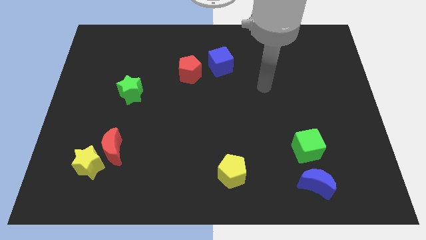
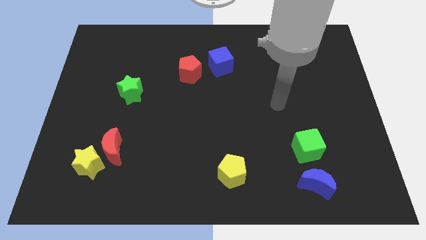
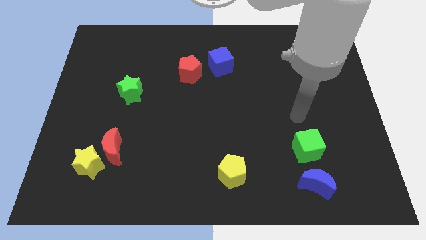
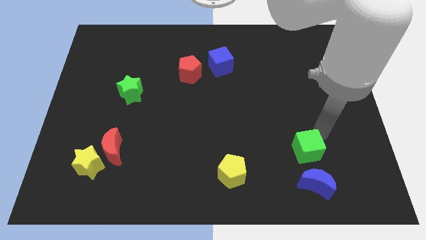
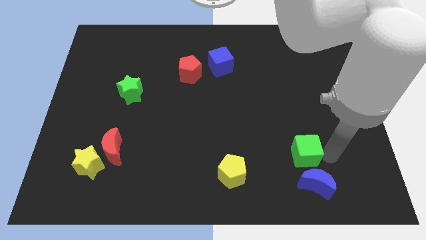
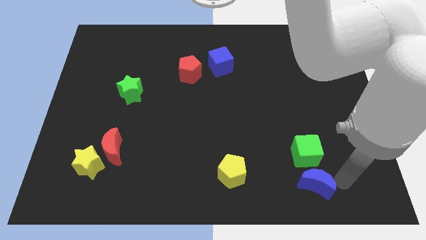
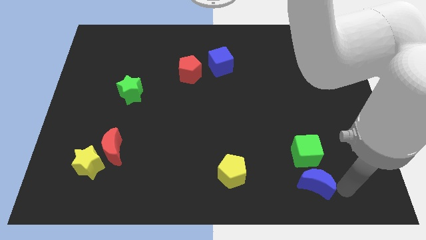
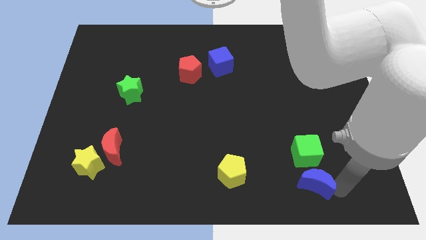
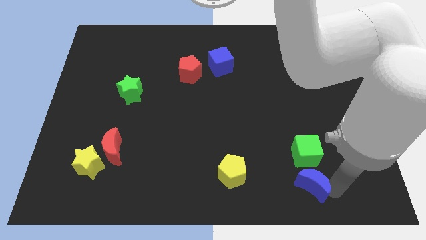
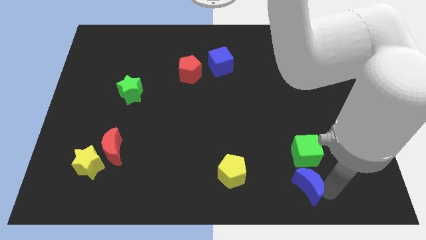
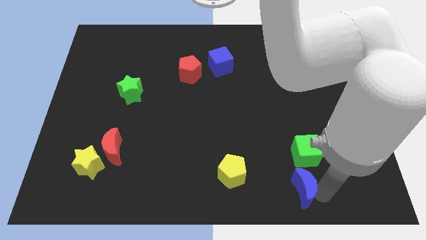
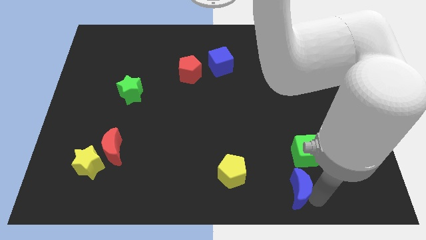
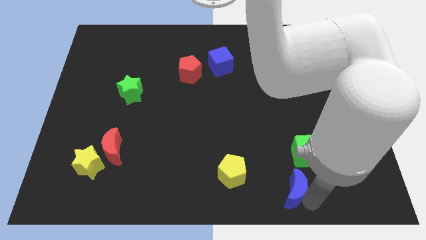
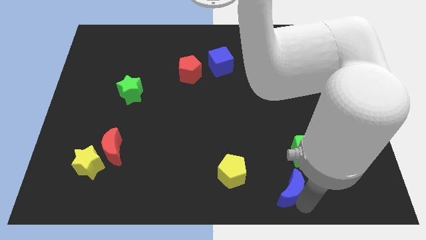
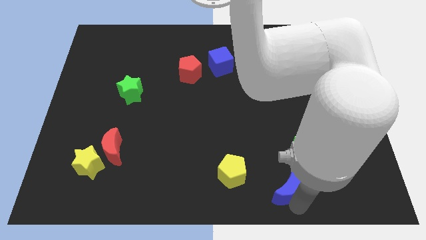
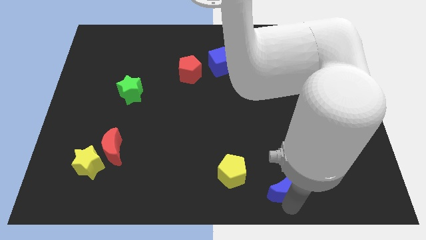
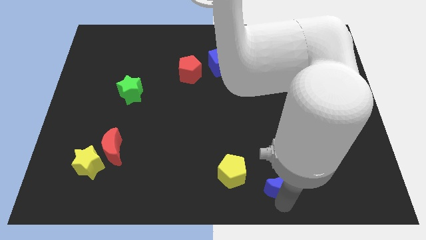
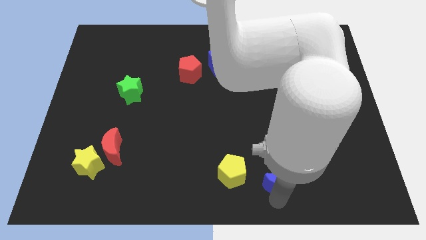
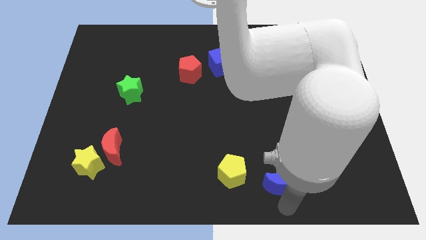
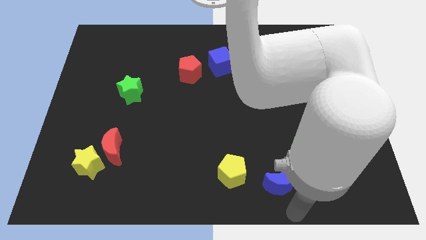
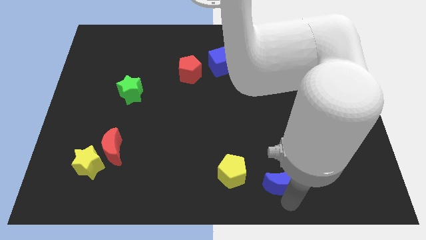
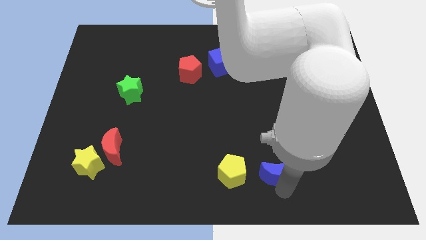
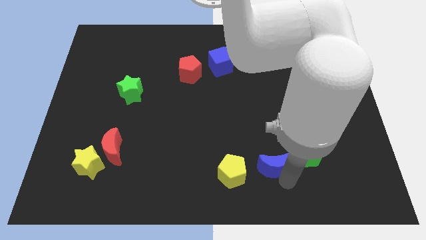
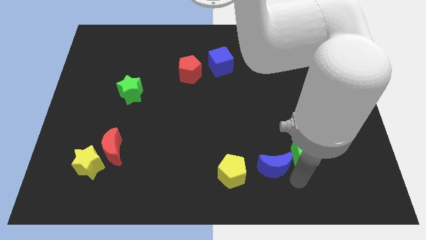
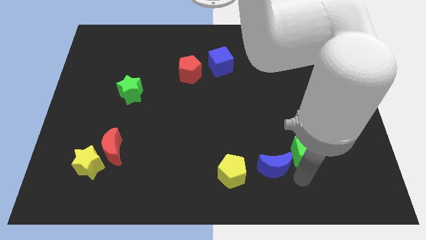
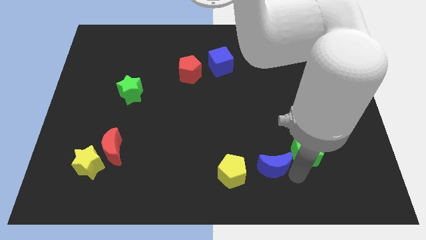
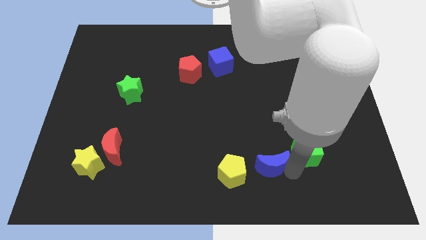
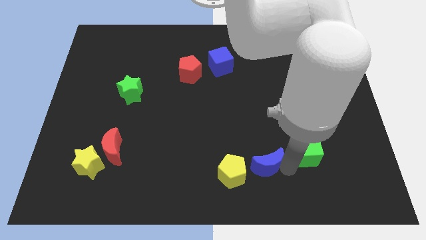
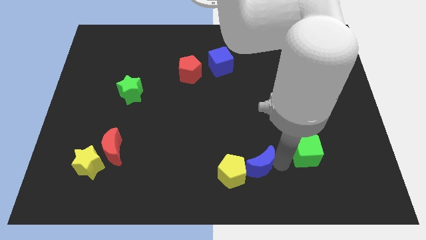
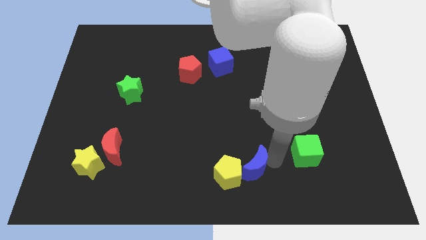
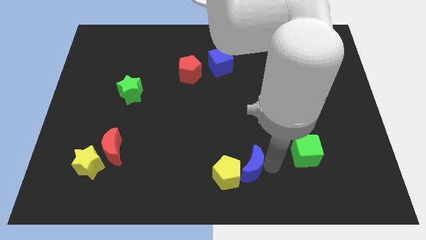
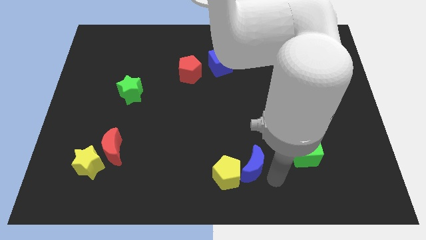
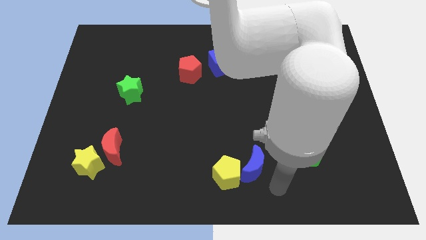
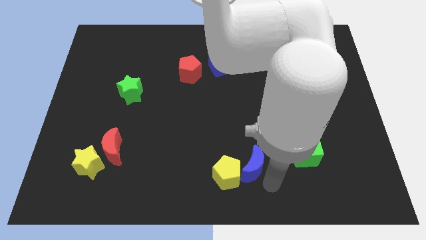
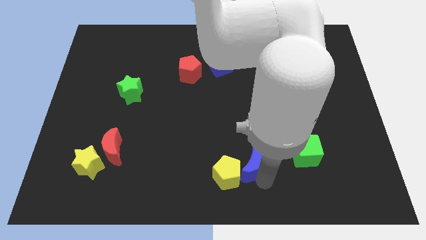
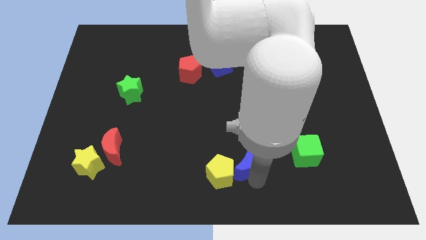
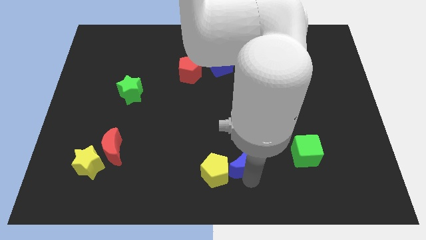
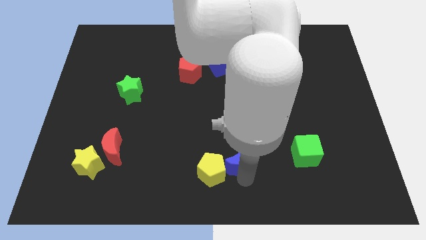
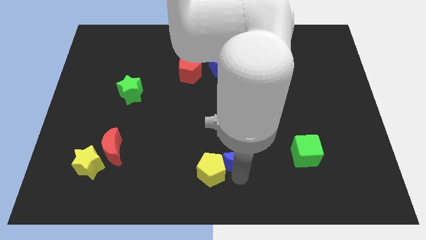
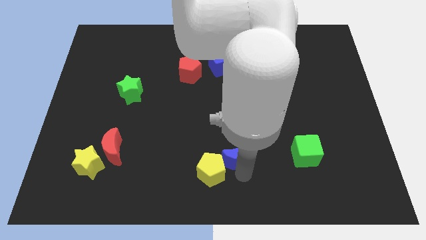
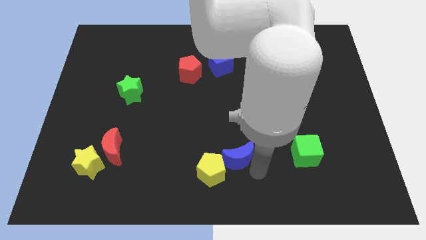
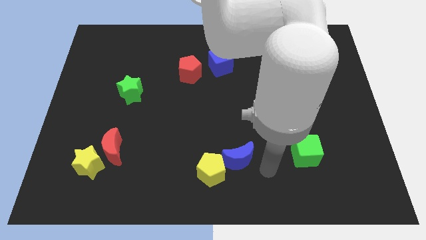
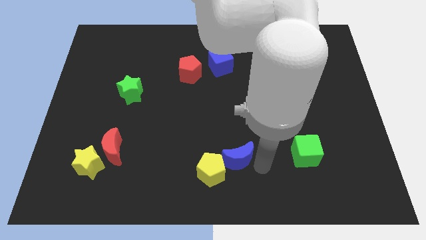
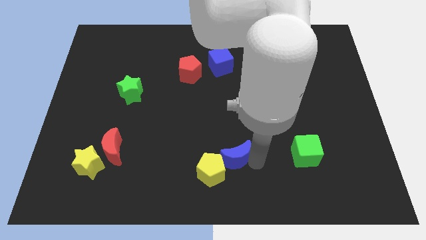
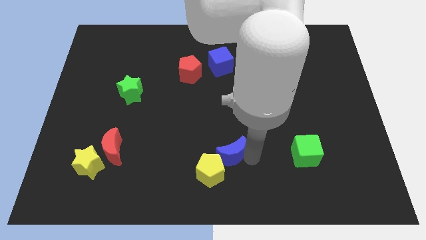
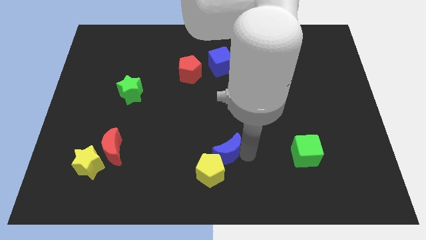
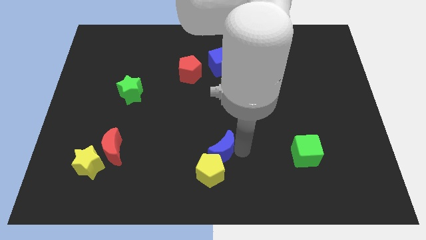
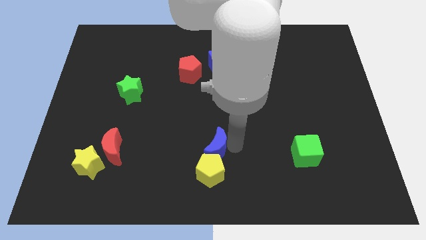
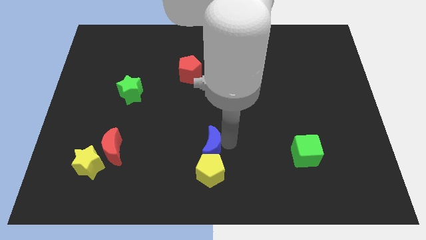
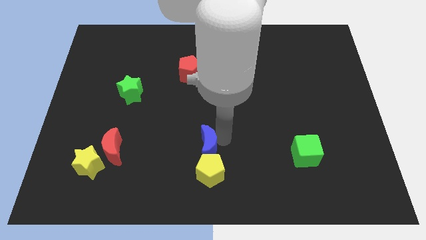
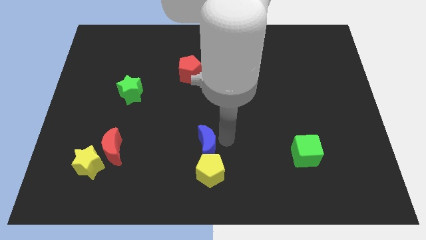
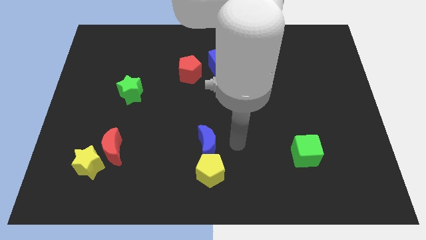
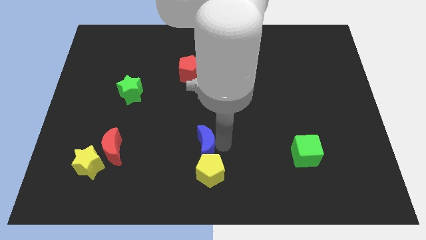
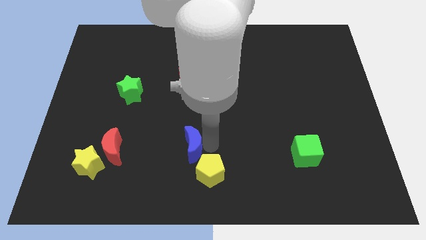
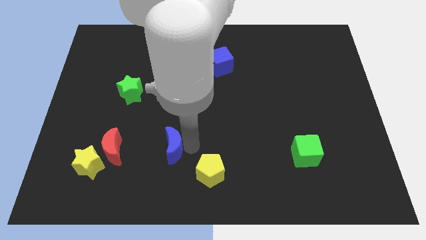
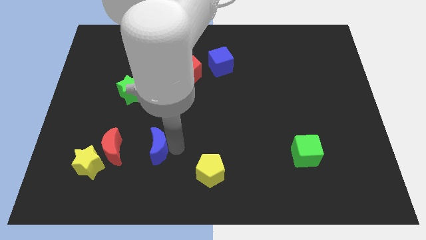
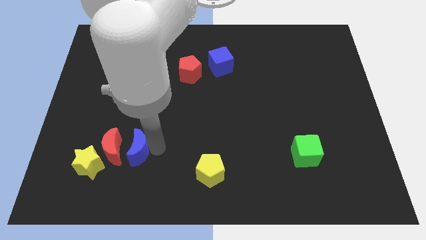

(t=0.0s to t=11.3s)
push the blue moon to the red moon

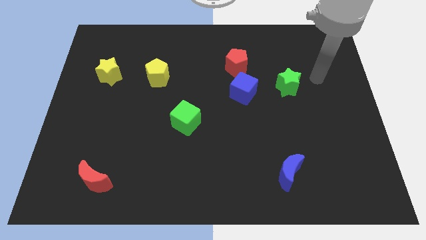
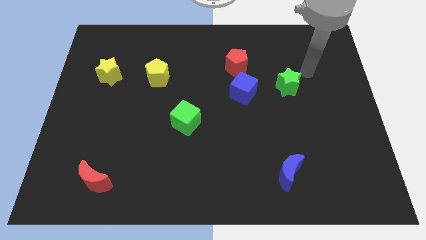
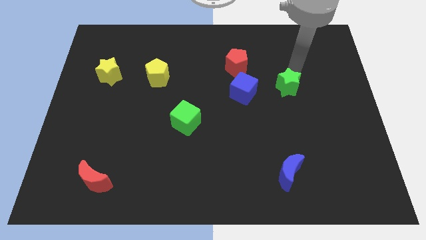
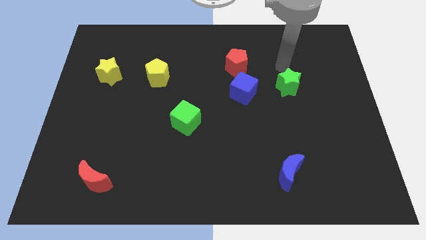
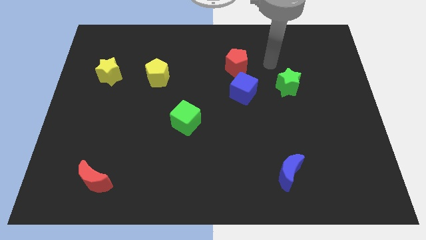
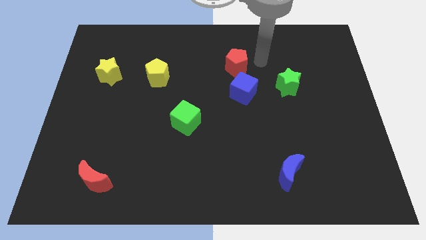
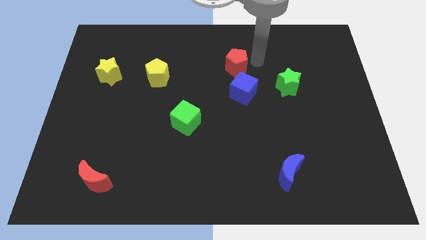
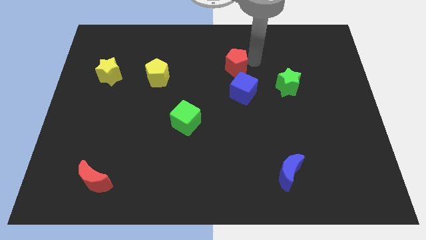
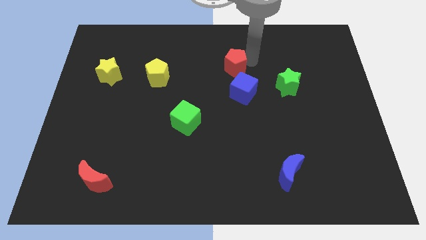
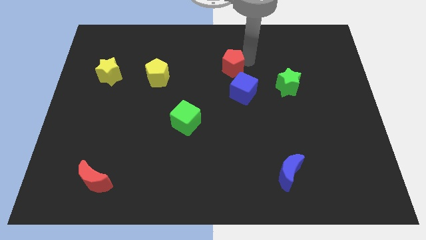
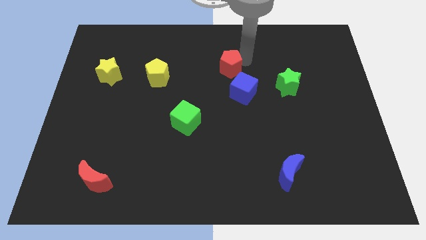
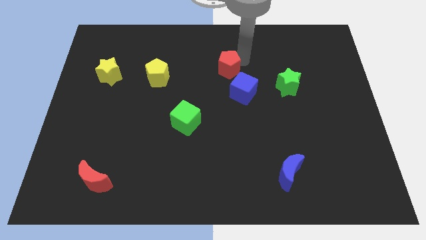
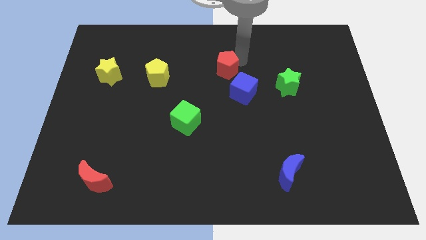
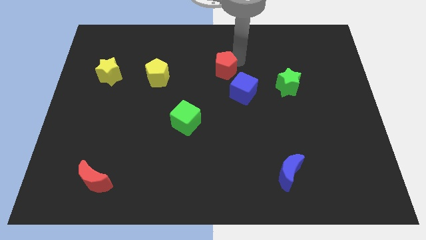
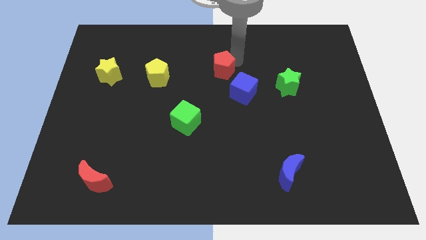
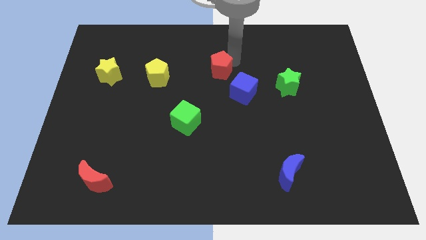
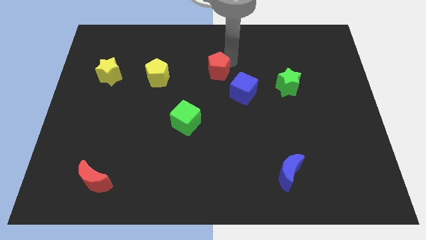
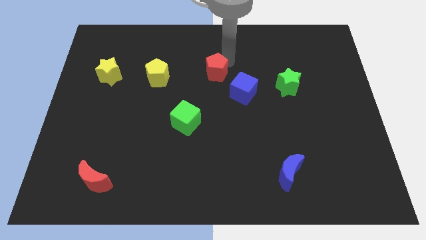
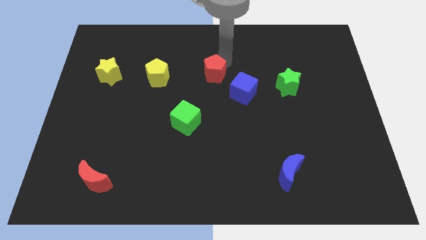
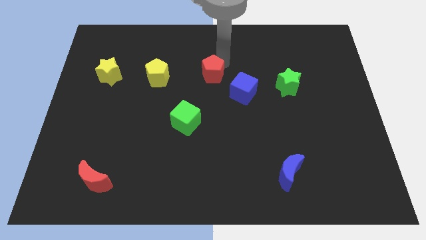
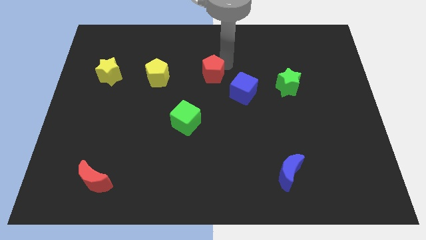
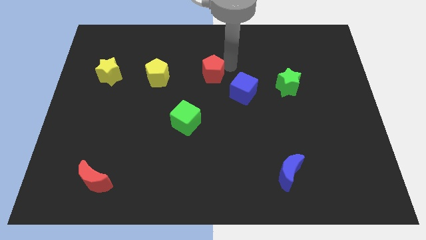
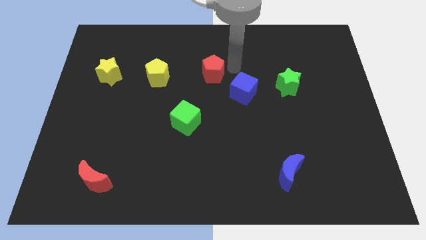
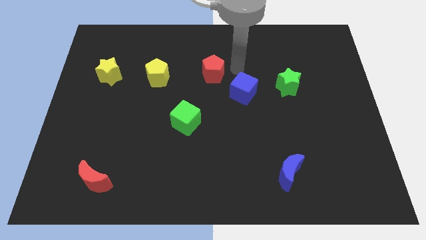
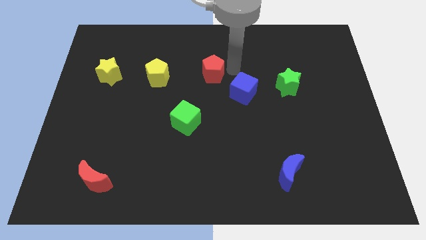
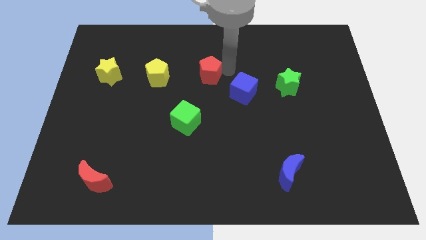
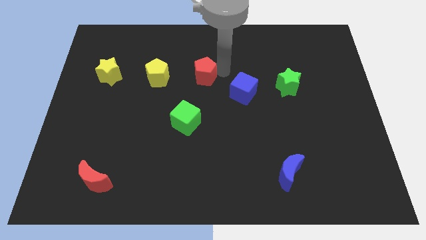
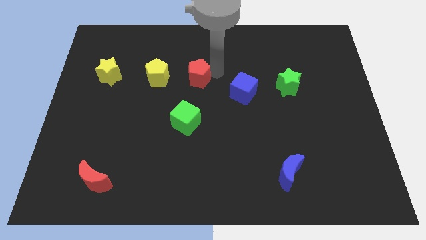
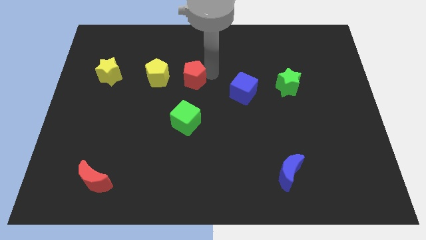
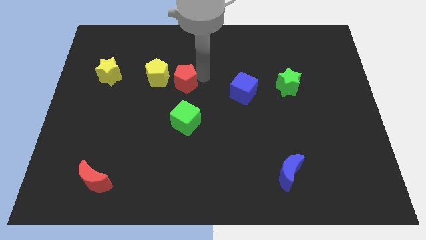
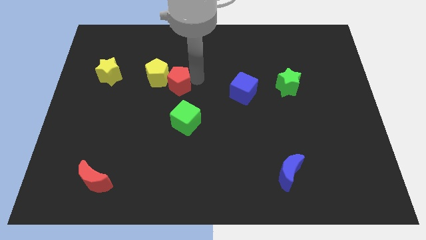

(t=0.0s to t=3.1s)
put the red pentagon towards the yellow pentagon
